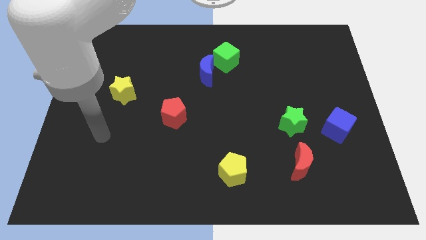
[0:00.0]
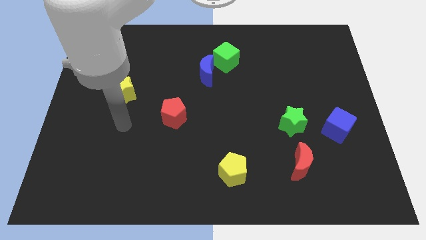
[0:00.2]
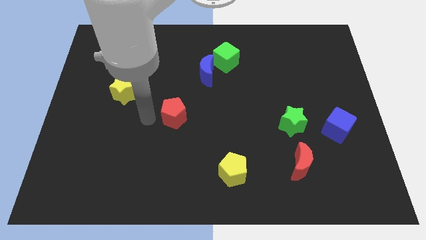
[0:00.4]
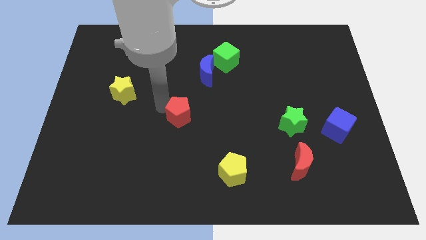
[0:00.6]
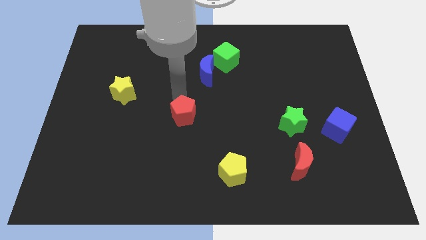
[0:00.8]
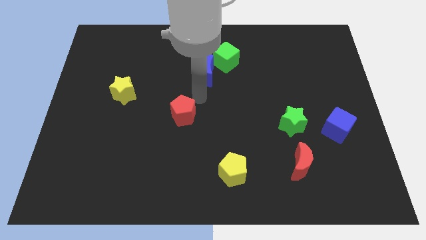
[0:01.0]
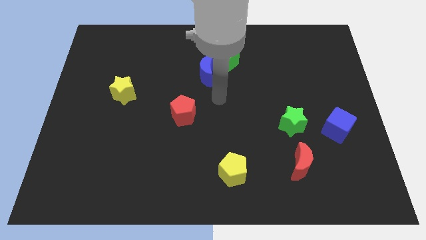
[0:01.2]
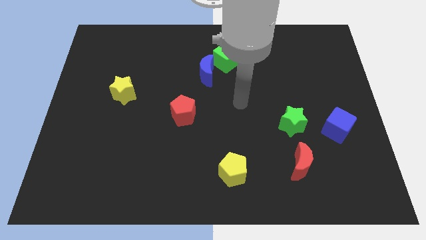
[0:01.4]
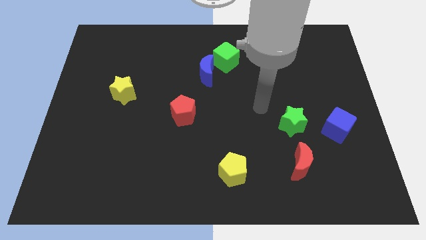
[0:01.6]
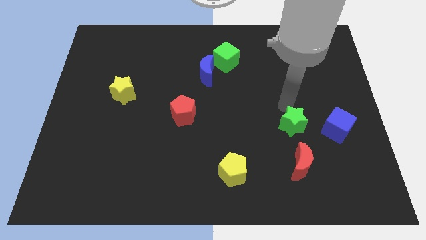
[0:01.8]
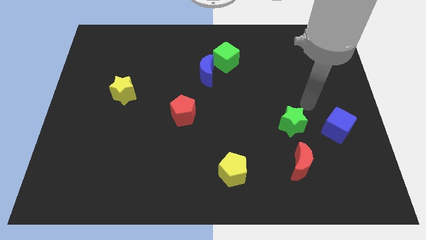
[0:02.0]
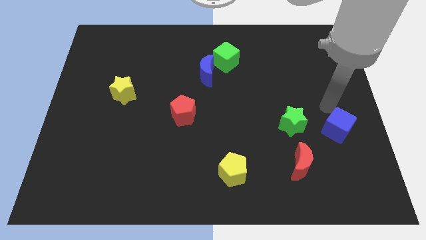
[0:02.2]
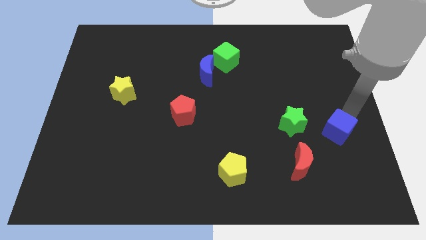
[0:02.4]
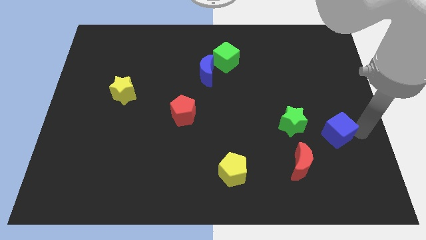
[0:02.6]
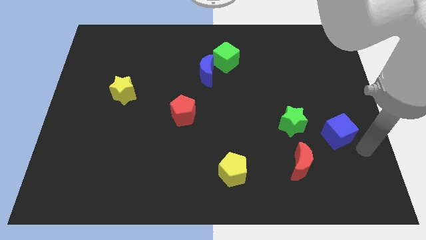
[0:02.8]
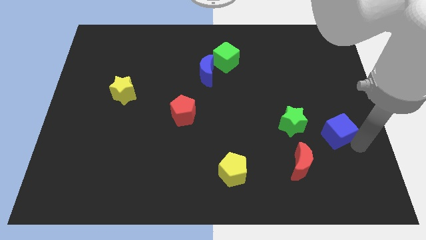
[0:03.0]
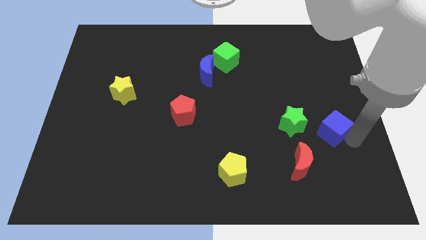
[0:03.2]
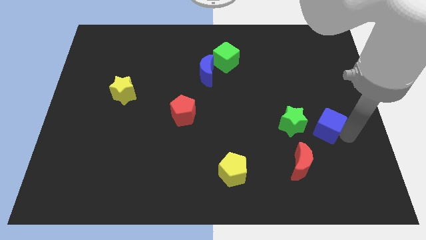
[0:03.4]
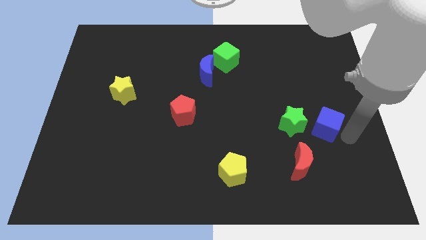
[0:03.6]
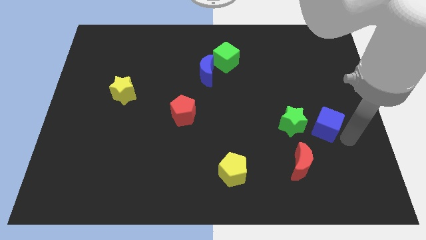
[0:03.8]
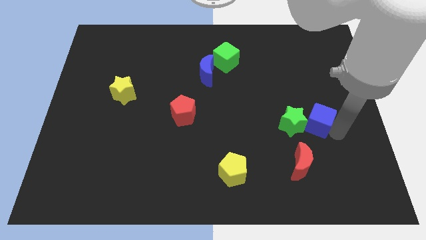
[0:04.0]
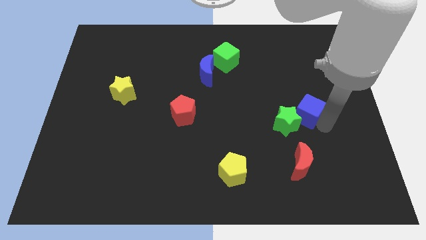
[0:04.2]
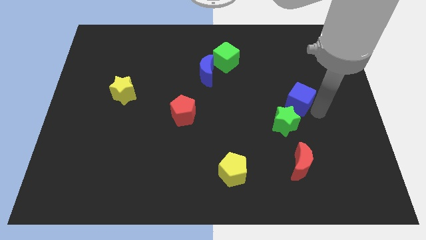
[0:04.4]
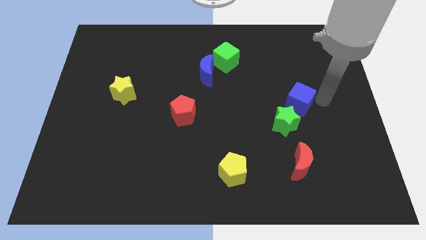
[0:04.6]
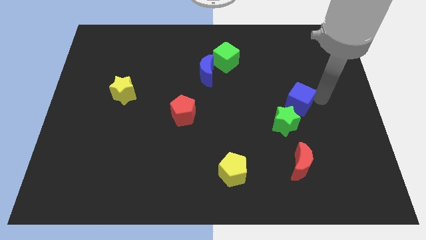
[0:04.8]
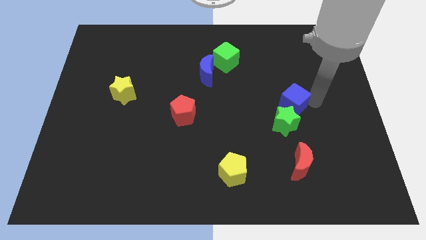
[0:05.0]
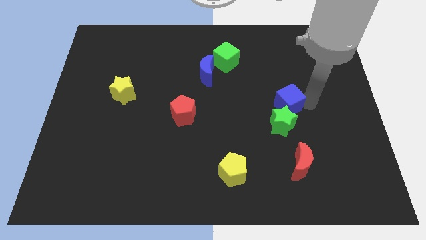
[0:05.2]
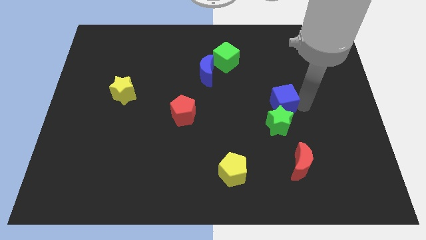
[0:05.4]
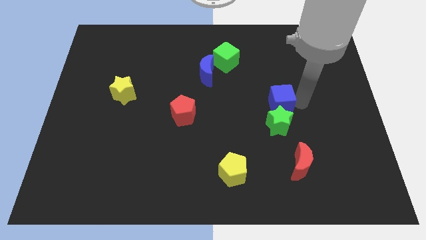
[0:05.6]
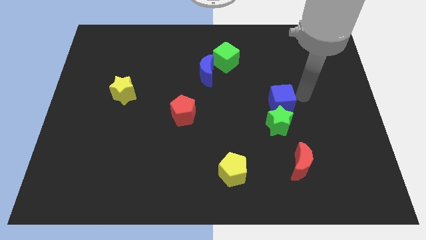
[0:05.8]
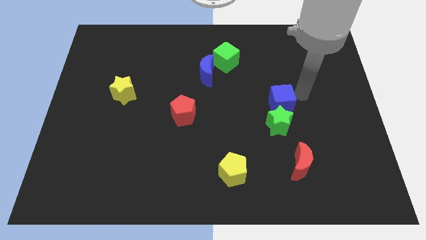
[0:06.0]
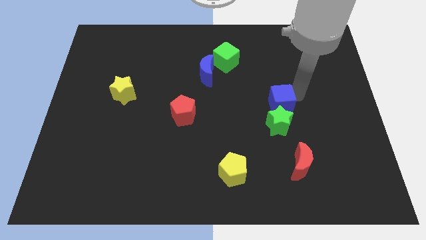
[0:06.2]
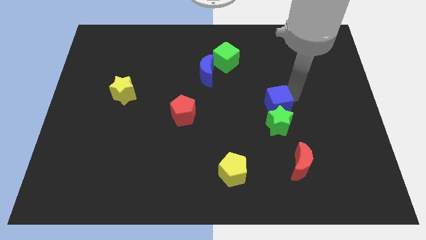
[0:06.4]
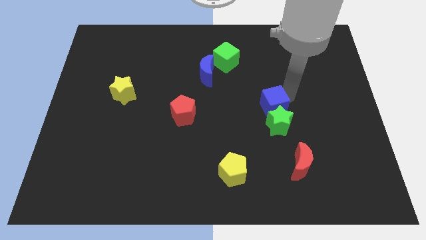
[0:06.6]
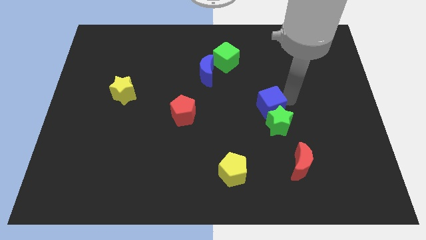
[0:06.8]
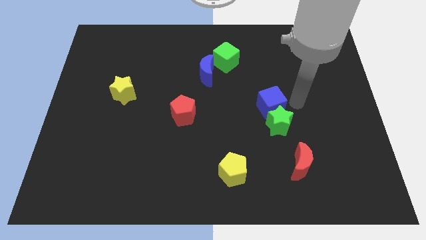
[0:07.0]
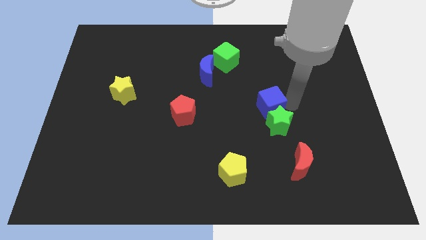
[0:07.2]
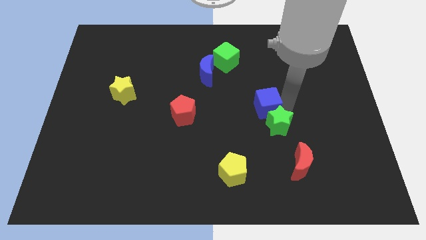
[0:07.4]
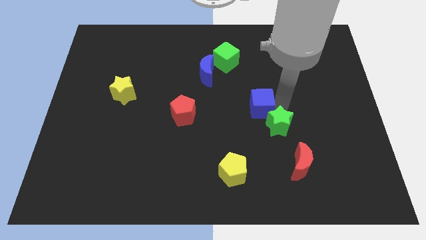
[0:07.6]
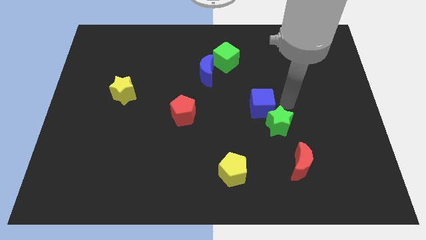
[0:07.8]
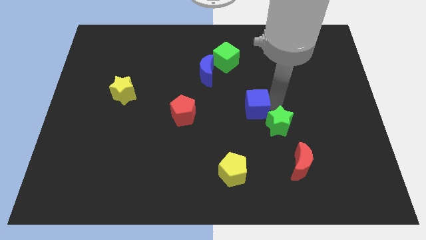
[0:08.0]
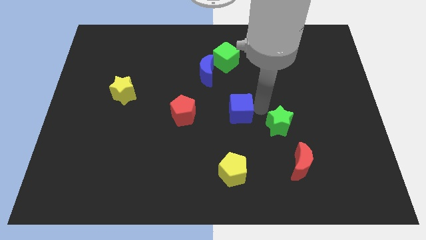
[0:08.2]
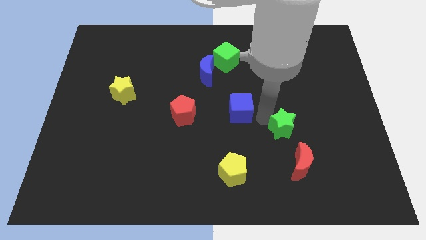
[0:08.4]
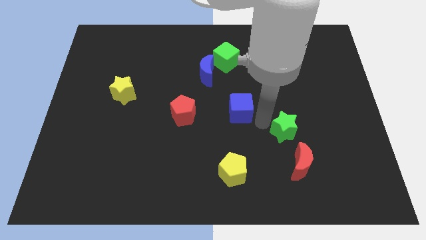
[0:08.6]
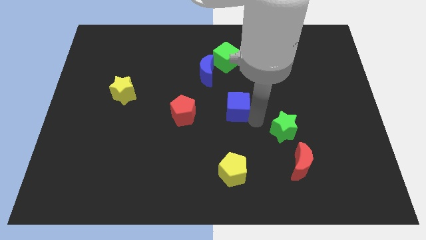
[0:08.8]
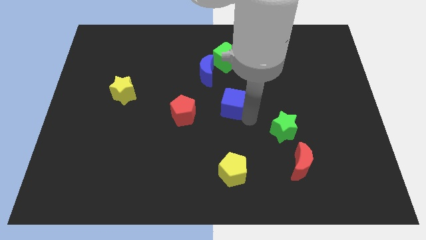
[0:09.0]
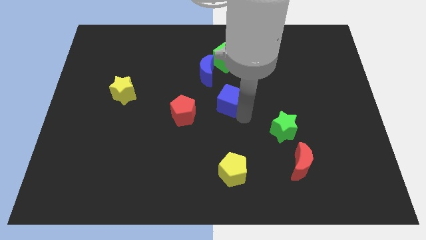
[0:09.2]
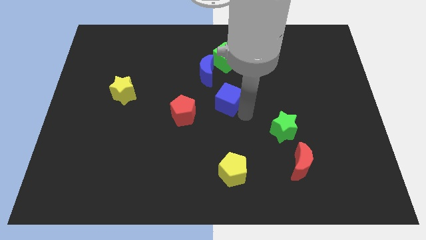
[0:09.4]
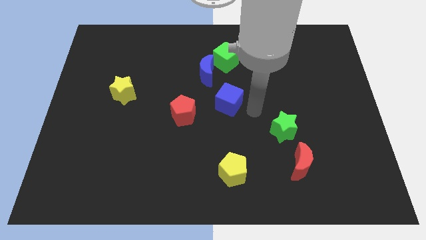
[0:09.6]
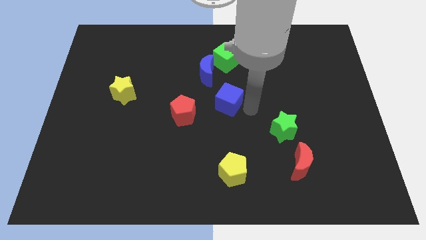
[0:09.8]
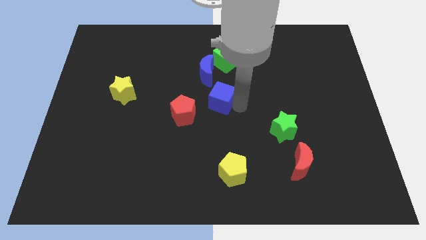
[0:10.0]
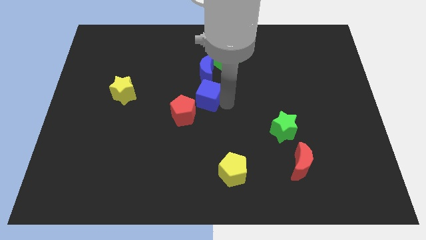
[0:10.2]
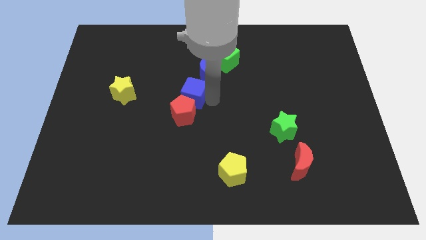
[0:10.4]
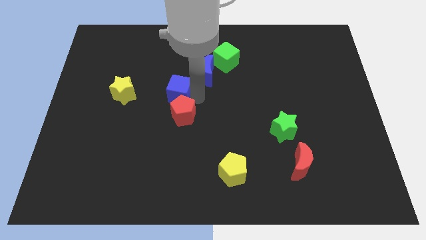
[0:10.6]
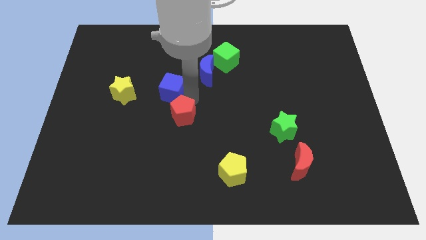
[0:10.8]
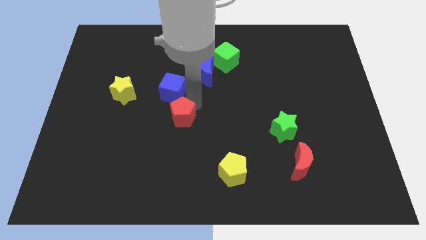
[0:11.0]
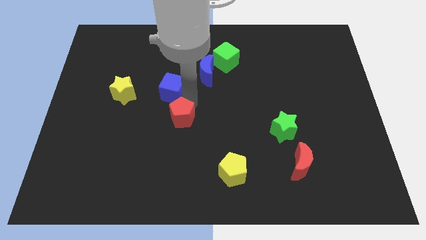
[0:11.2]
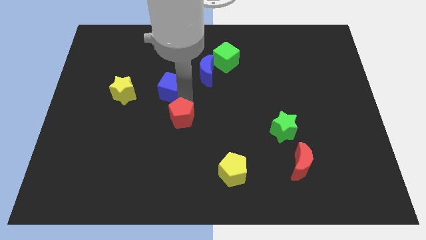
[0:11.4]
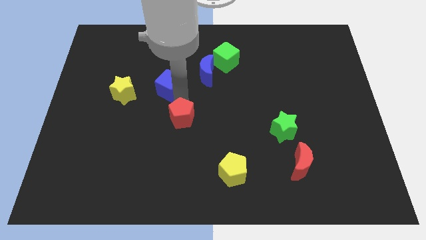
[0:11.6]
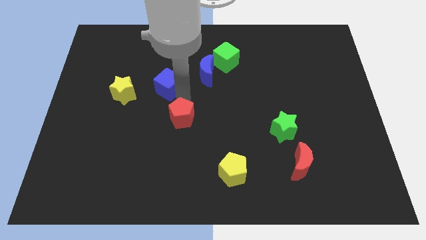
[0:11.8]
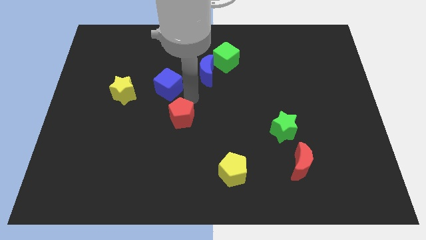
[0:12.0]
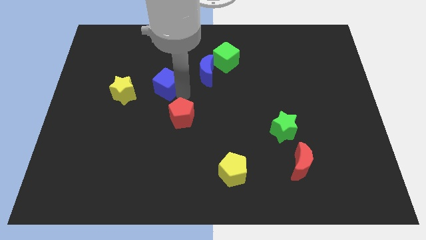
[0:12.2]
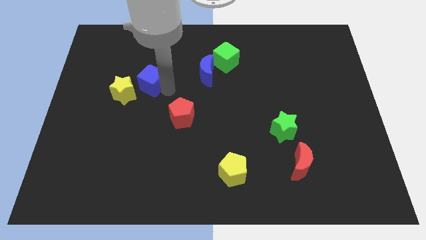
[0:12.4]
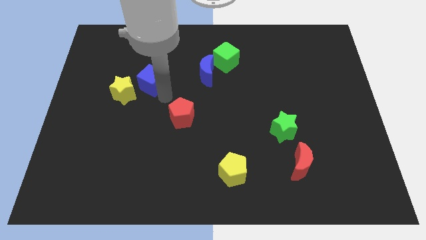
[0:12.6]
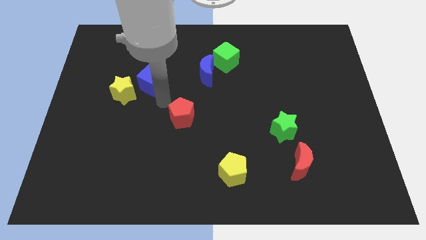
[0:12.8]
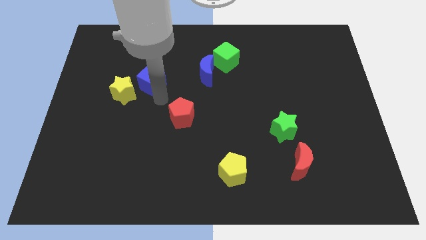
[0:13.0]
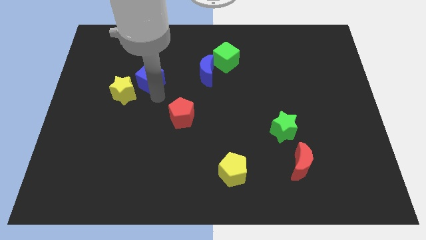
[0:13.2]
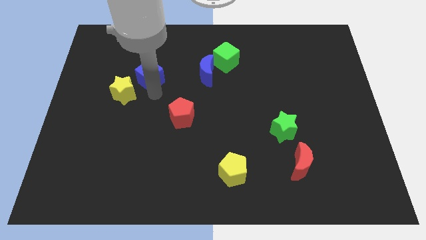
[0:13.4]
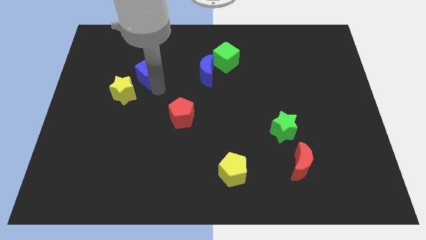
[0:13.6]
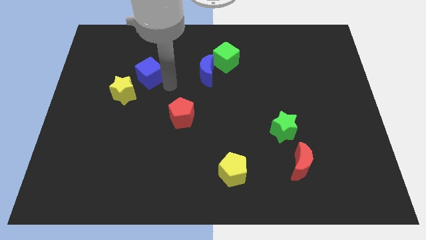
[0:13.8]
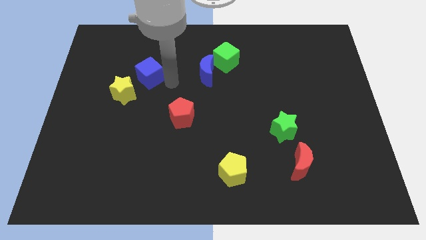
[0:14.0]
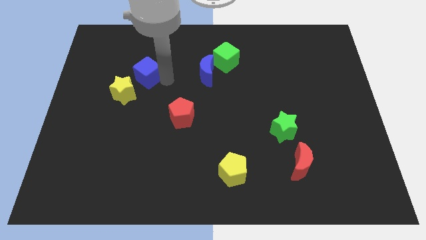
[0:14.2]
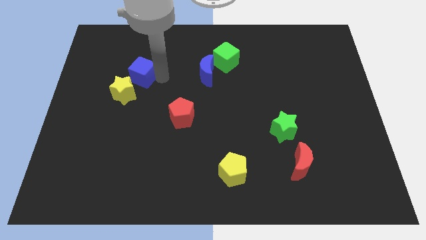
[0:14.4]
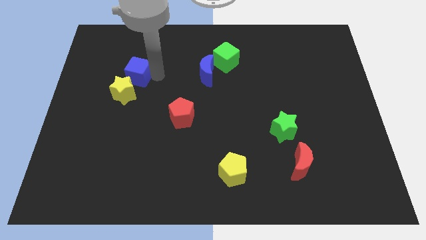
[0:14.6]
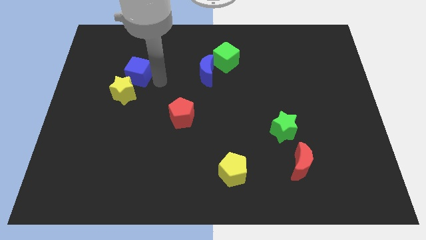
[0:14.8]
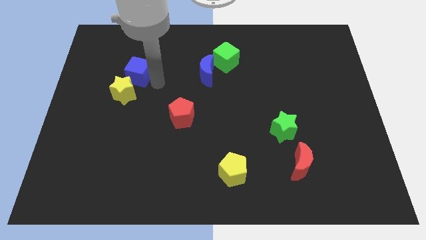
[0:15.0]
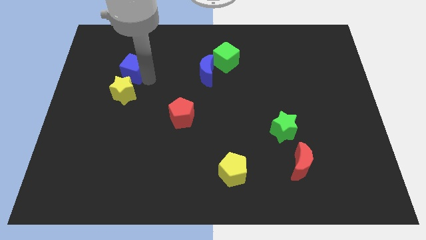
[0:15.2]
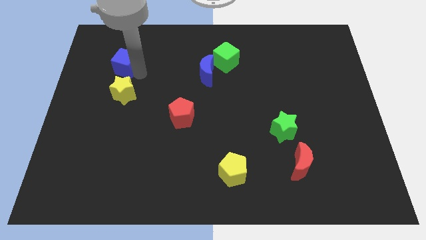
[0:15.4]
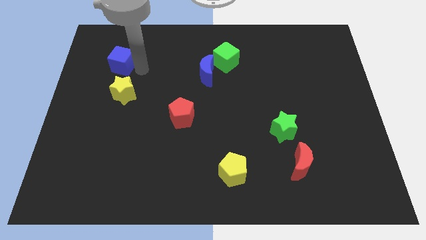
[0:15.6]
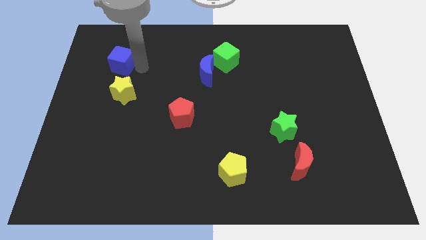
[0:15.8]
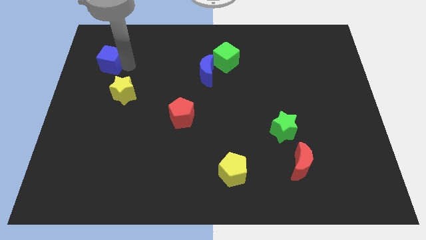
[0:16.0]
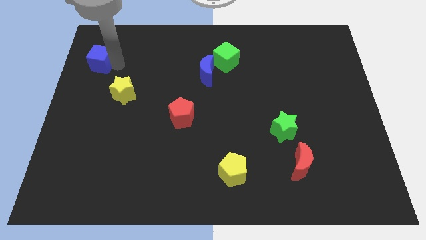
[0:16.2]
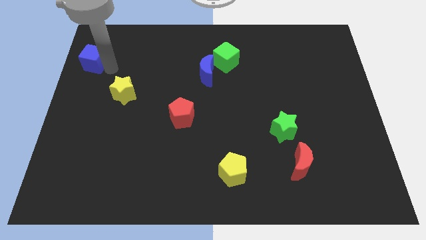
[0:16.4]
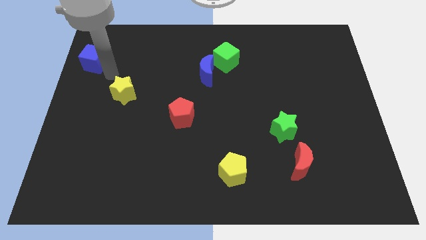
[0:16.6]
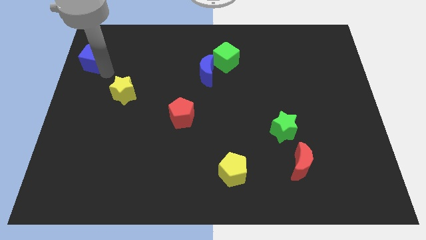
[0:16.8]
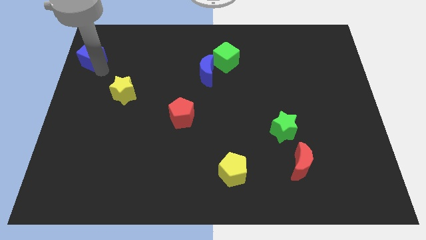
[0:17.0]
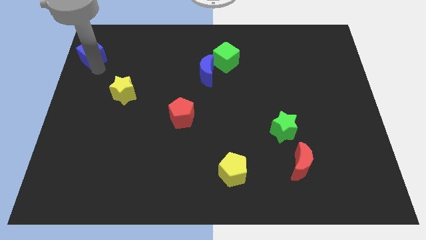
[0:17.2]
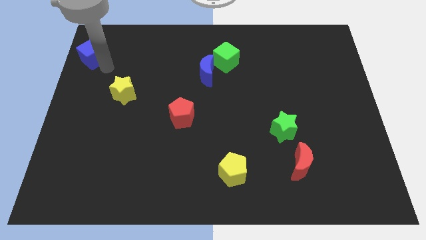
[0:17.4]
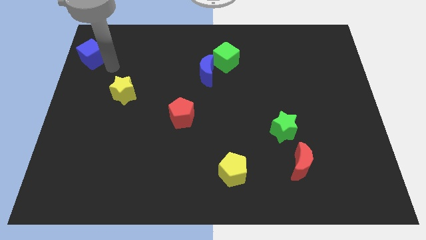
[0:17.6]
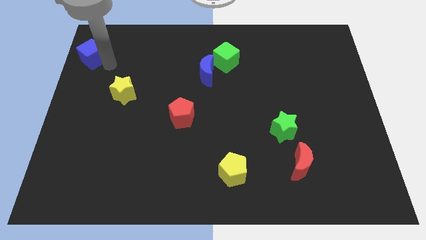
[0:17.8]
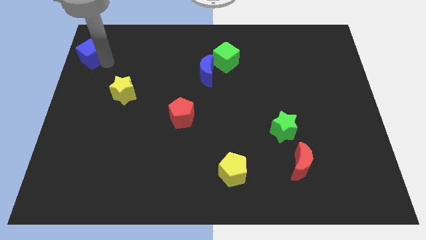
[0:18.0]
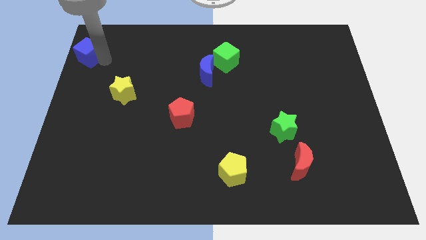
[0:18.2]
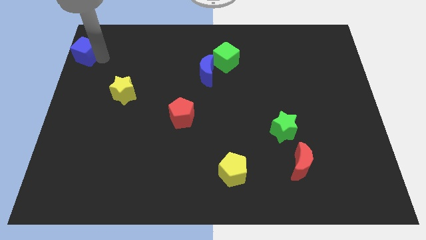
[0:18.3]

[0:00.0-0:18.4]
put the blue cube to the top left
